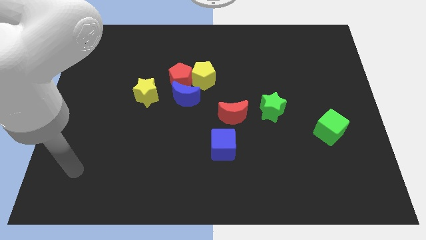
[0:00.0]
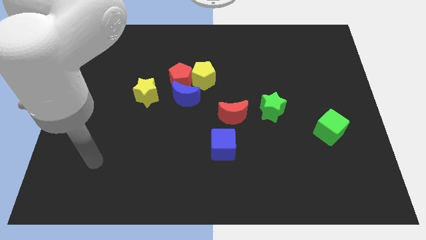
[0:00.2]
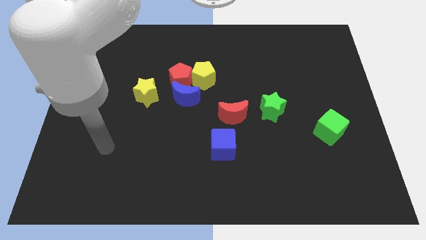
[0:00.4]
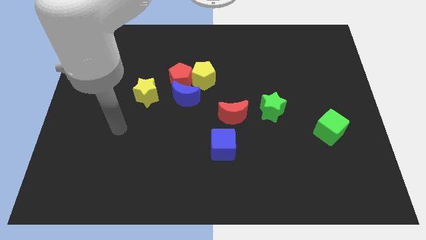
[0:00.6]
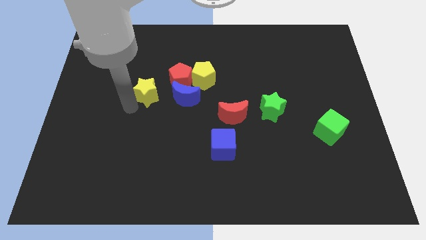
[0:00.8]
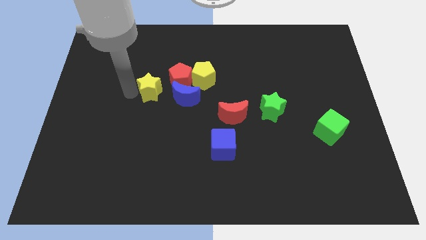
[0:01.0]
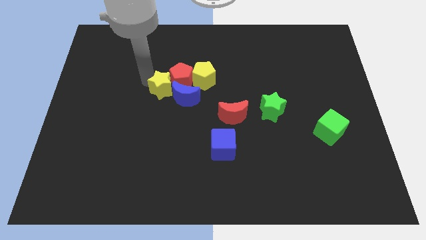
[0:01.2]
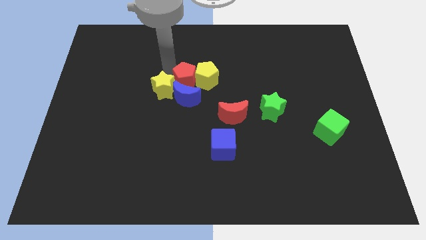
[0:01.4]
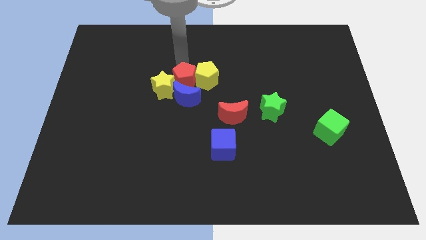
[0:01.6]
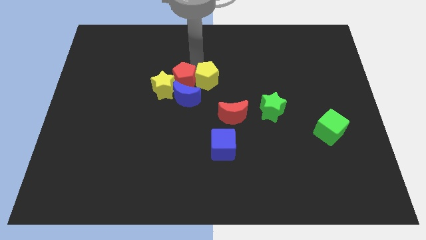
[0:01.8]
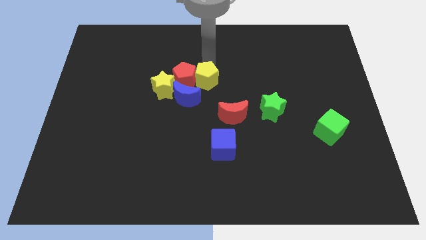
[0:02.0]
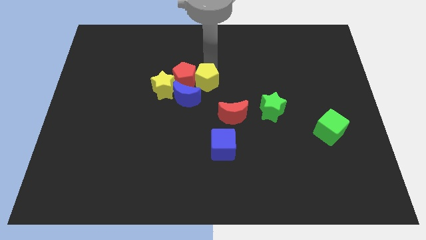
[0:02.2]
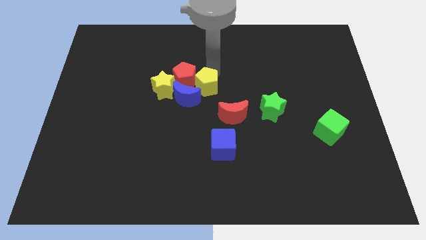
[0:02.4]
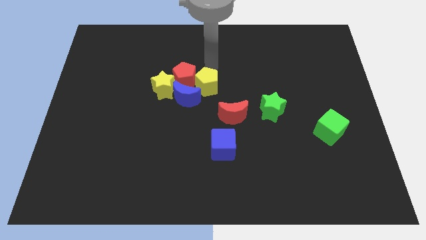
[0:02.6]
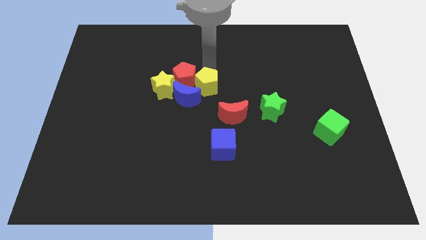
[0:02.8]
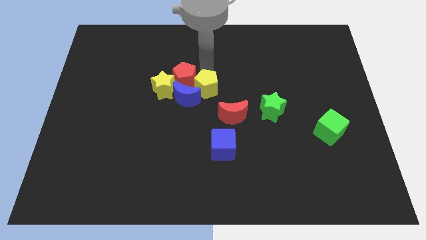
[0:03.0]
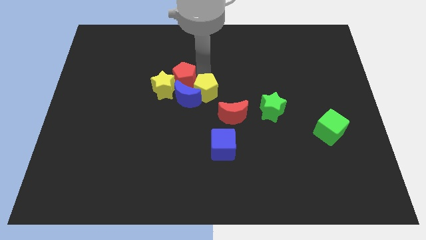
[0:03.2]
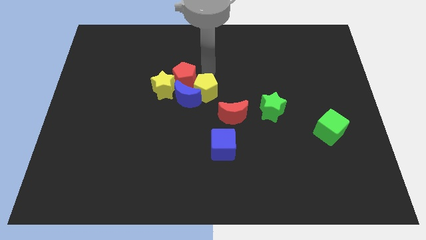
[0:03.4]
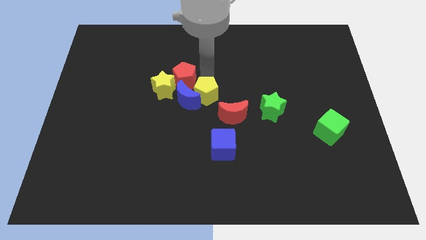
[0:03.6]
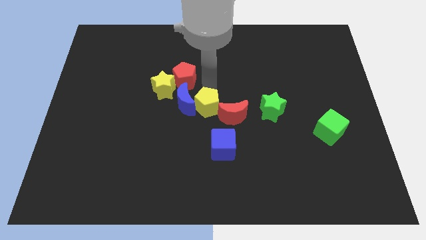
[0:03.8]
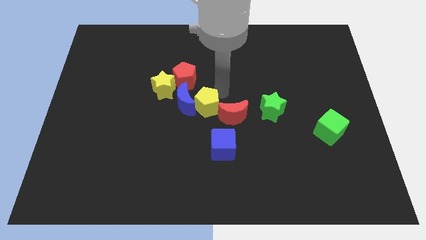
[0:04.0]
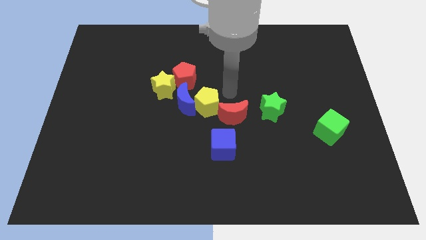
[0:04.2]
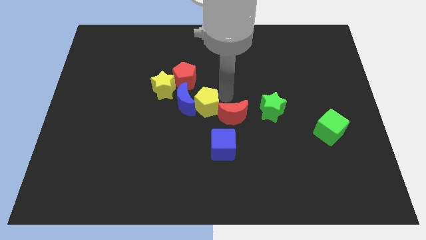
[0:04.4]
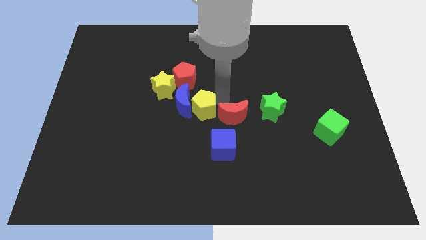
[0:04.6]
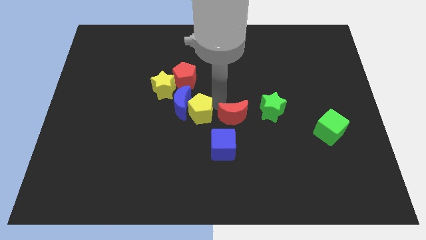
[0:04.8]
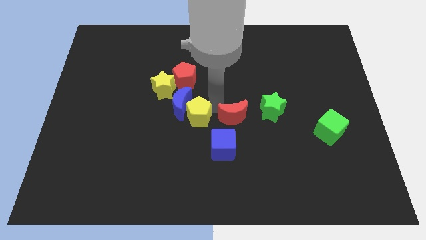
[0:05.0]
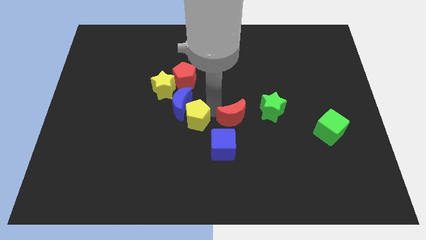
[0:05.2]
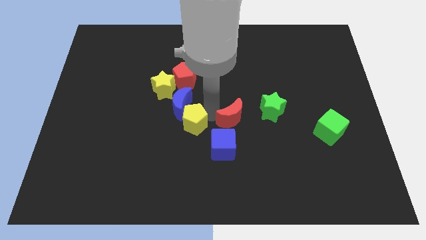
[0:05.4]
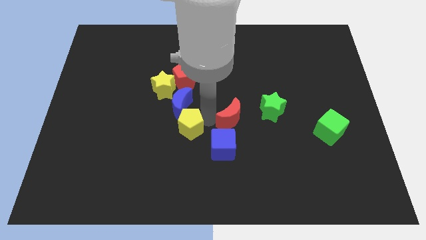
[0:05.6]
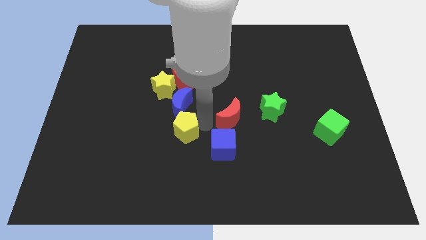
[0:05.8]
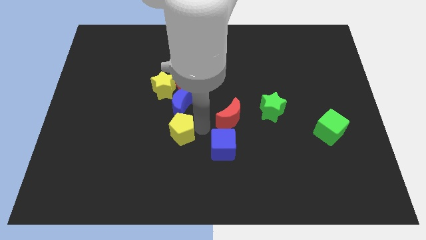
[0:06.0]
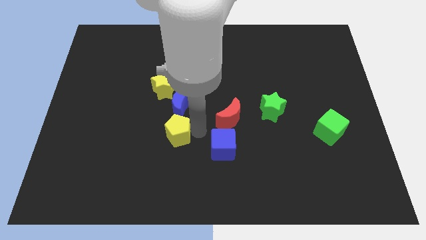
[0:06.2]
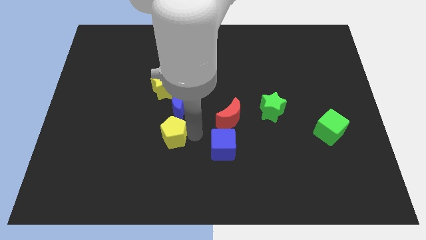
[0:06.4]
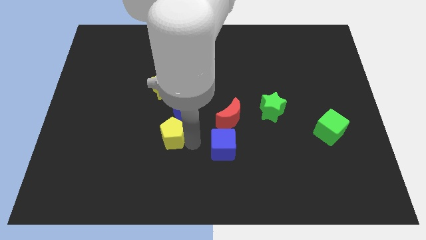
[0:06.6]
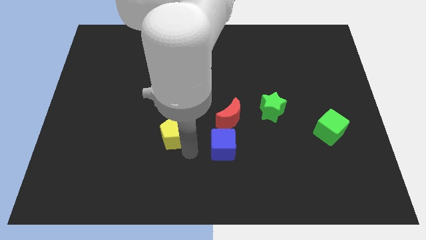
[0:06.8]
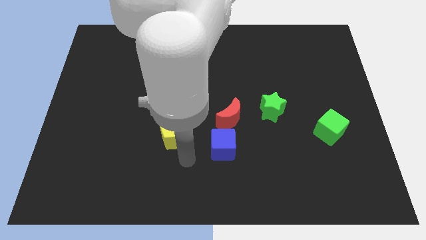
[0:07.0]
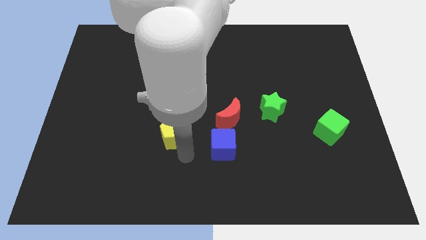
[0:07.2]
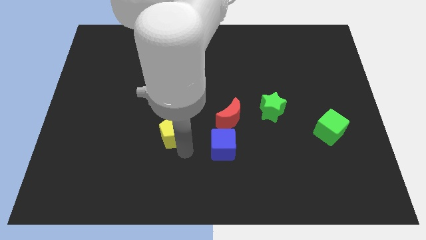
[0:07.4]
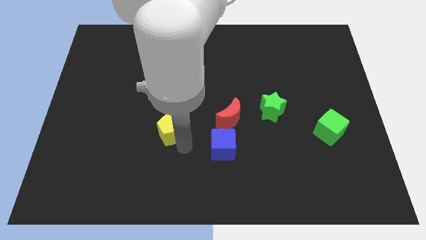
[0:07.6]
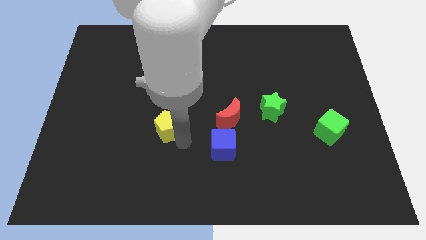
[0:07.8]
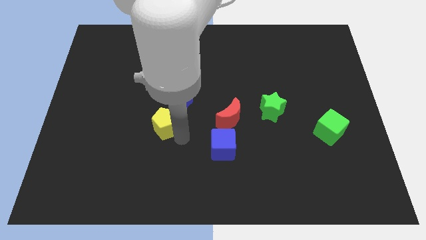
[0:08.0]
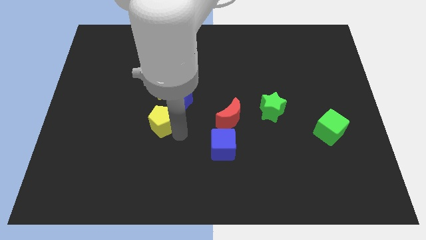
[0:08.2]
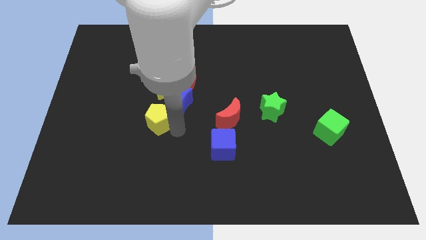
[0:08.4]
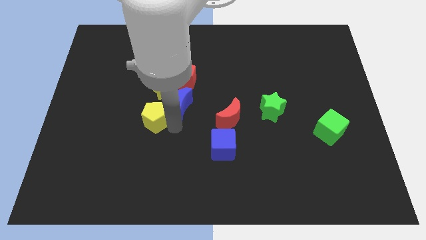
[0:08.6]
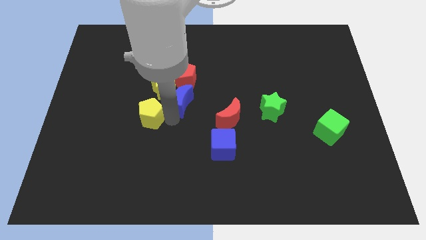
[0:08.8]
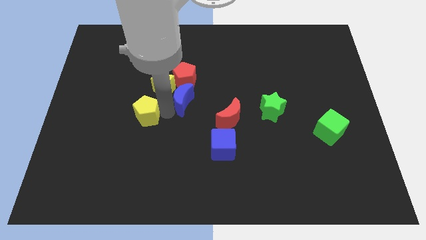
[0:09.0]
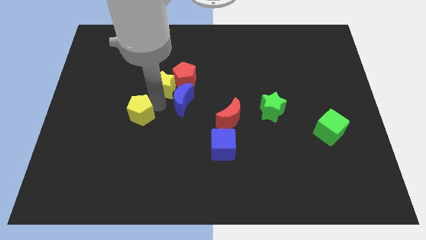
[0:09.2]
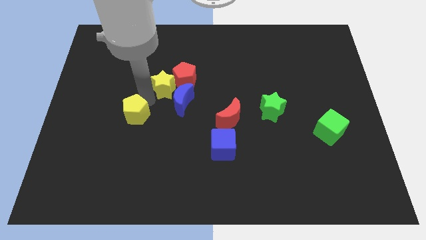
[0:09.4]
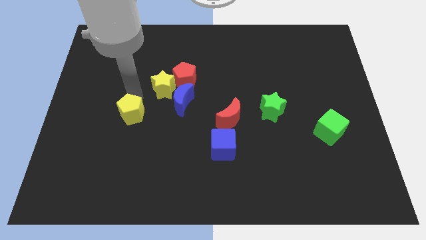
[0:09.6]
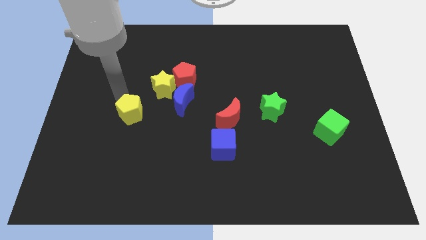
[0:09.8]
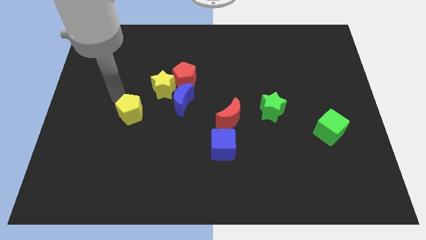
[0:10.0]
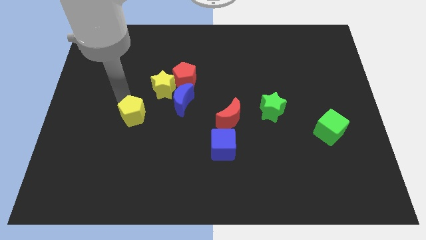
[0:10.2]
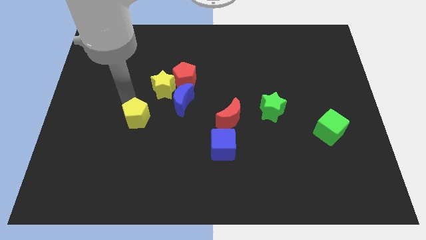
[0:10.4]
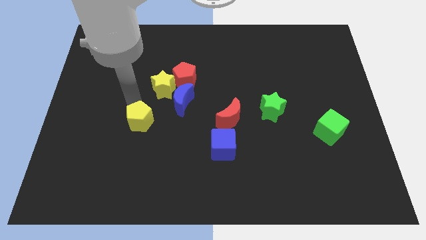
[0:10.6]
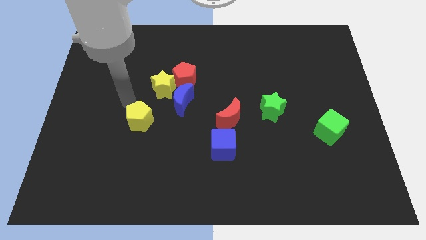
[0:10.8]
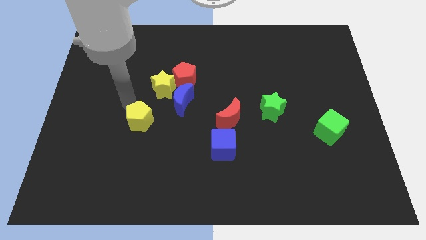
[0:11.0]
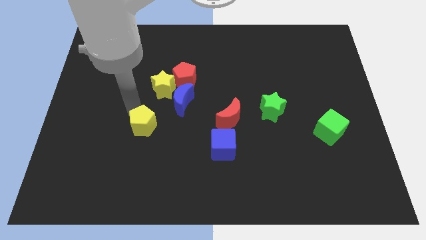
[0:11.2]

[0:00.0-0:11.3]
push the yellow pentagon downwards and then to the left

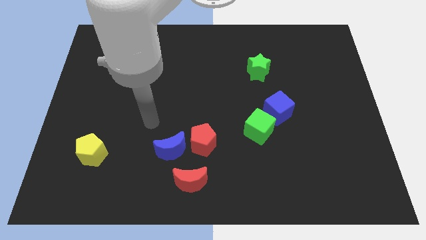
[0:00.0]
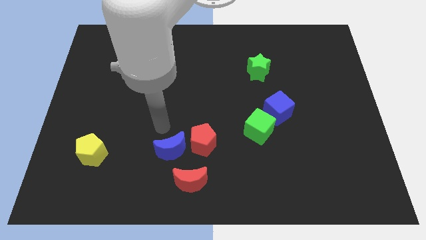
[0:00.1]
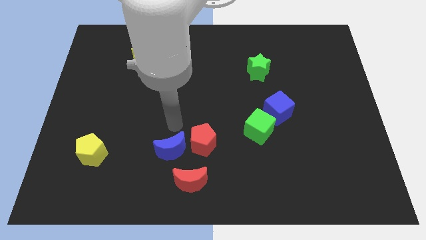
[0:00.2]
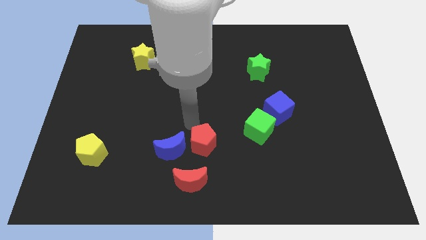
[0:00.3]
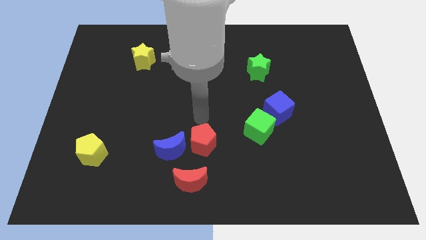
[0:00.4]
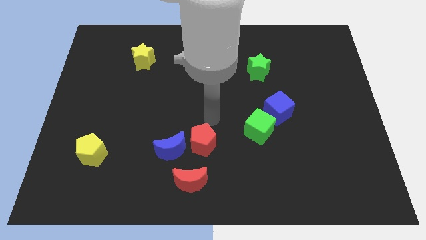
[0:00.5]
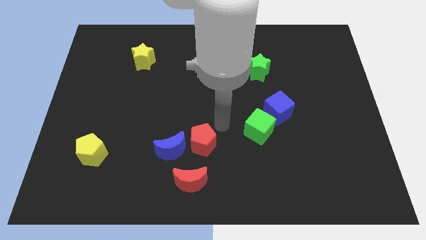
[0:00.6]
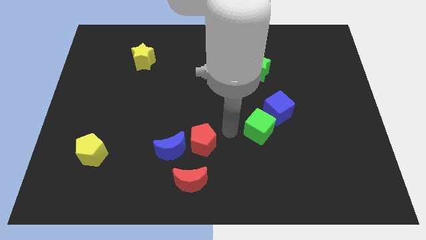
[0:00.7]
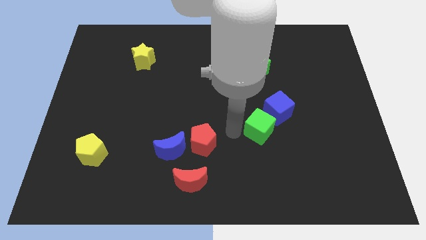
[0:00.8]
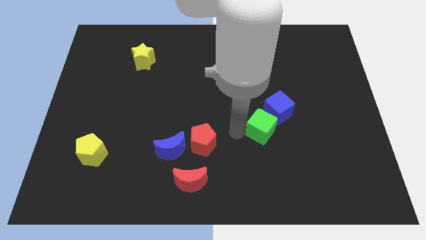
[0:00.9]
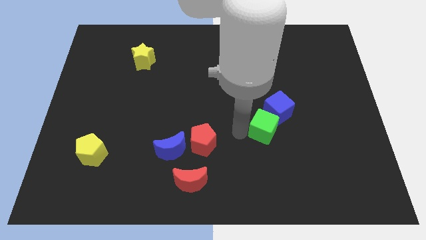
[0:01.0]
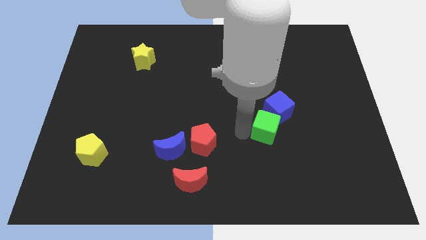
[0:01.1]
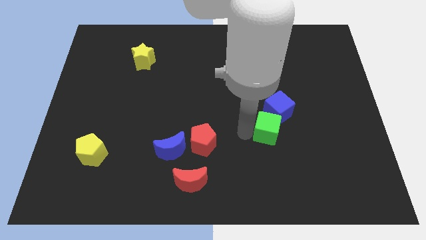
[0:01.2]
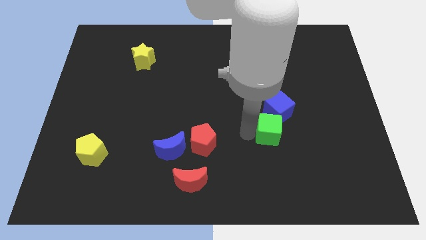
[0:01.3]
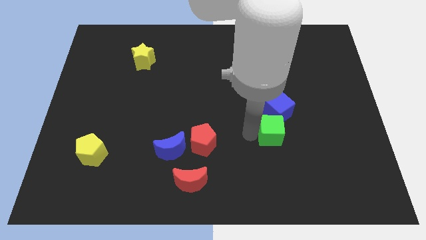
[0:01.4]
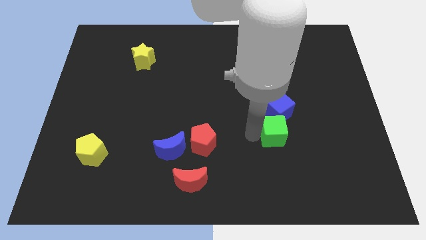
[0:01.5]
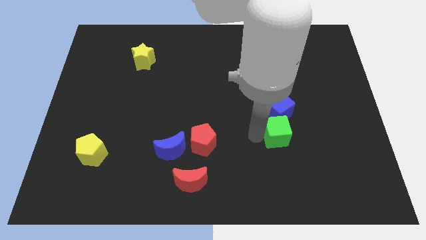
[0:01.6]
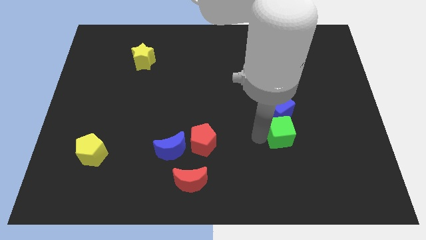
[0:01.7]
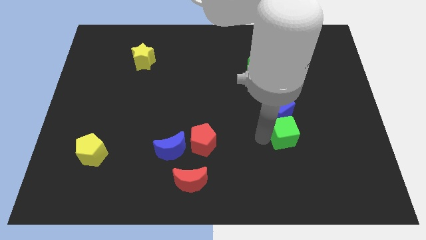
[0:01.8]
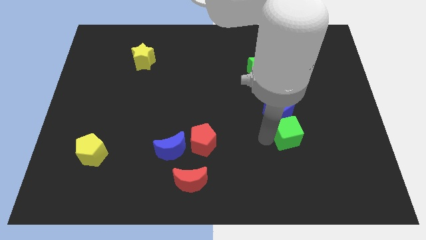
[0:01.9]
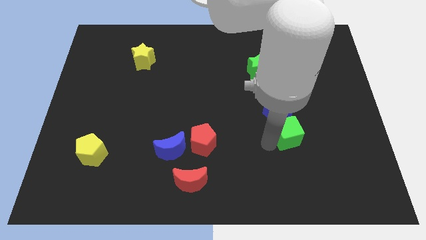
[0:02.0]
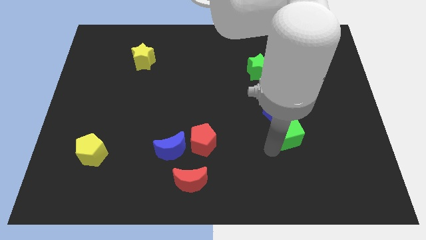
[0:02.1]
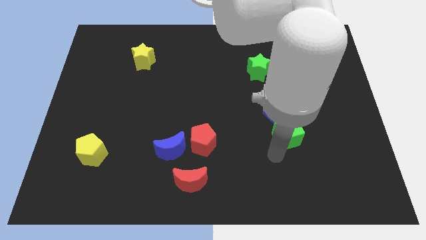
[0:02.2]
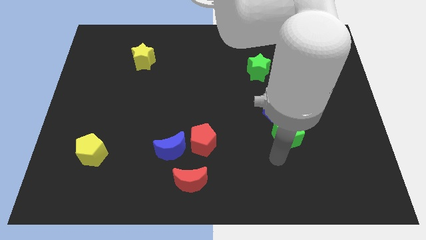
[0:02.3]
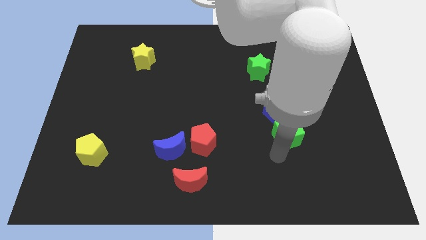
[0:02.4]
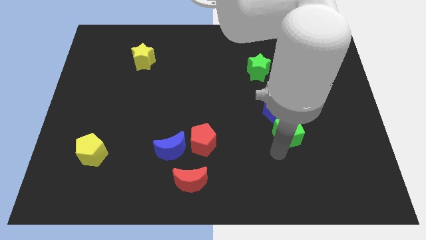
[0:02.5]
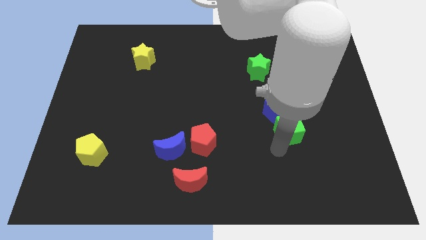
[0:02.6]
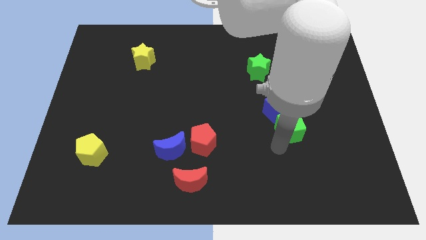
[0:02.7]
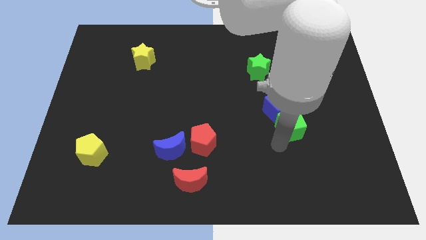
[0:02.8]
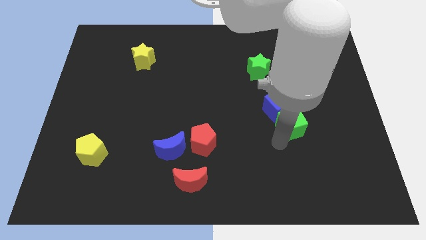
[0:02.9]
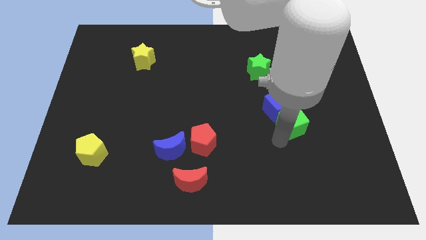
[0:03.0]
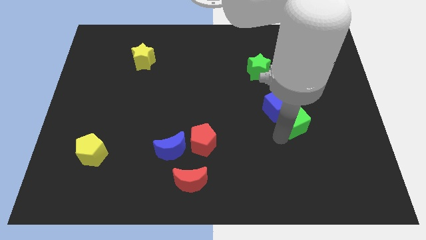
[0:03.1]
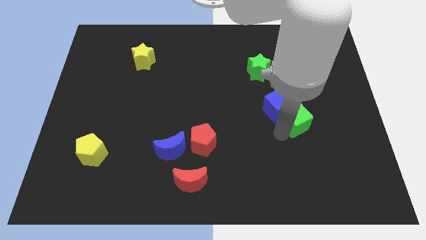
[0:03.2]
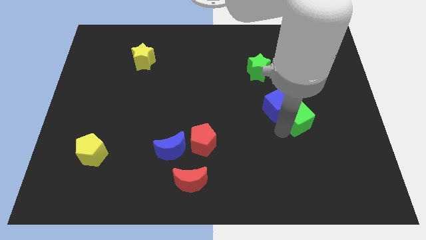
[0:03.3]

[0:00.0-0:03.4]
move the green cube diagonally up and right somewhat
